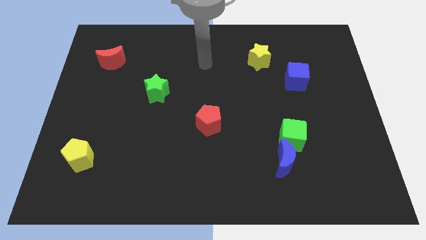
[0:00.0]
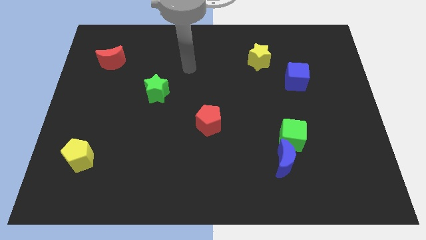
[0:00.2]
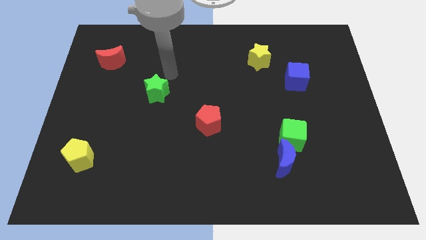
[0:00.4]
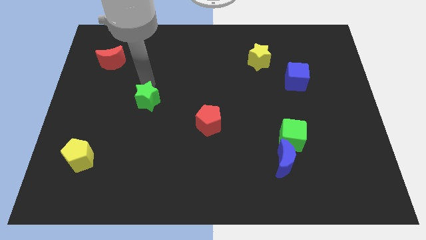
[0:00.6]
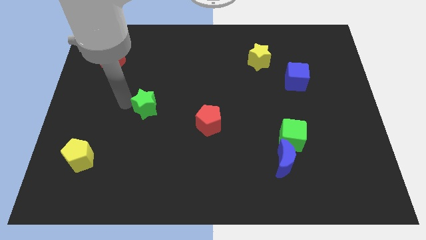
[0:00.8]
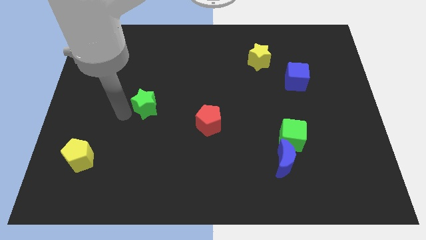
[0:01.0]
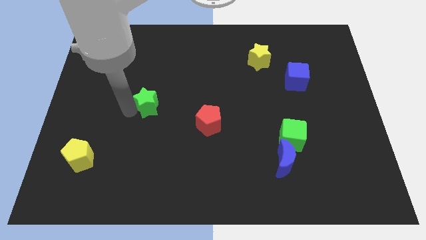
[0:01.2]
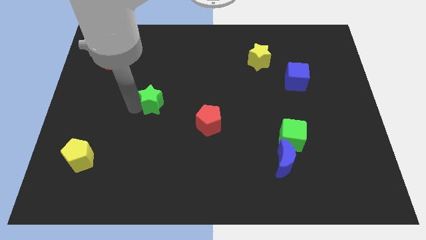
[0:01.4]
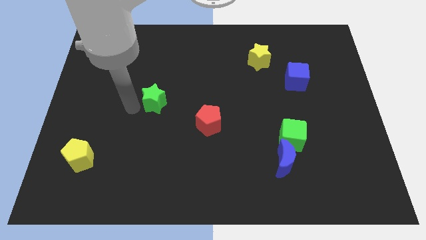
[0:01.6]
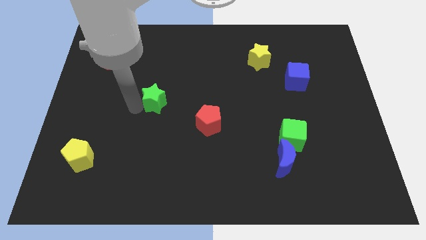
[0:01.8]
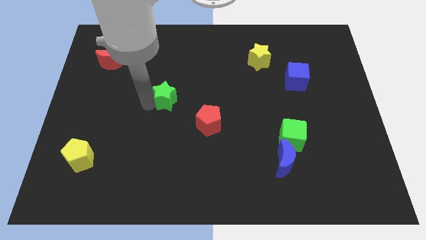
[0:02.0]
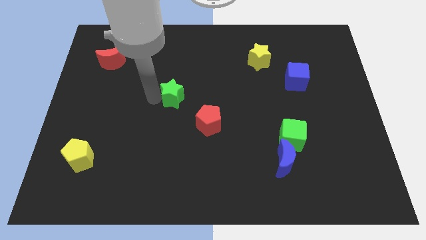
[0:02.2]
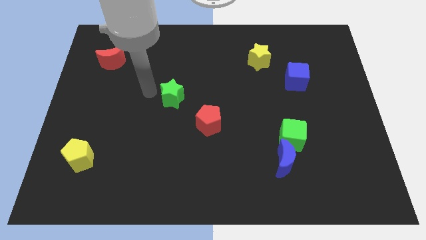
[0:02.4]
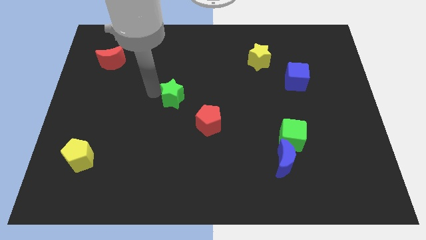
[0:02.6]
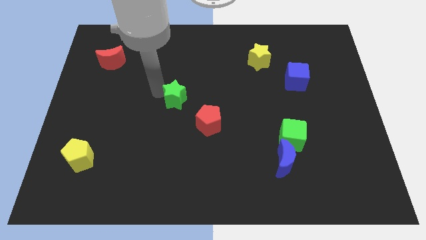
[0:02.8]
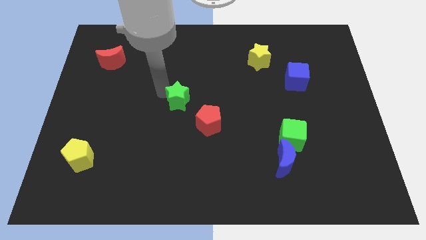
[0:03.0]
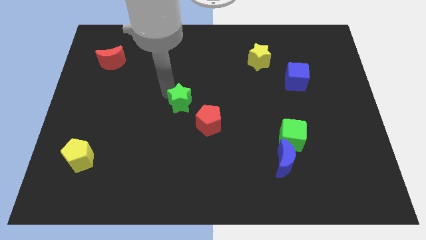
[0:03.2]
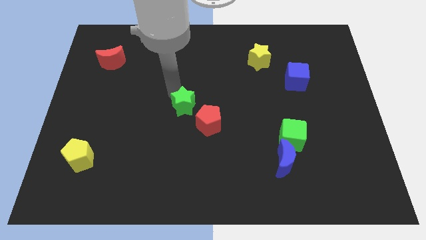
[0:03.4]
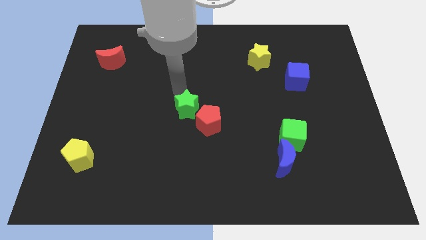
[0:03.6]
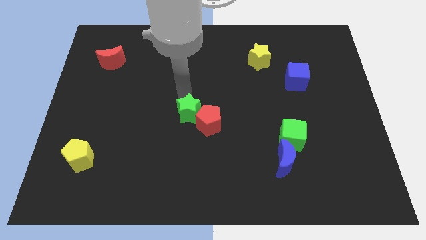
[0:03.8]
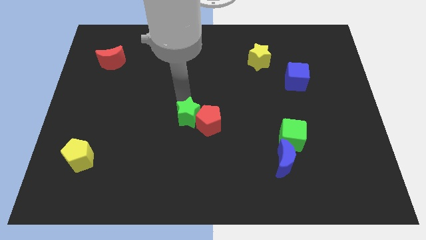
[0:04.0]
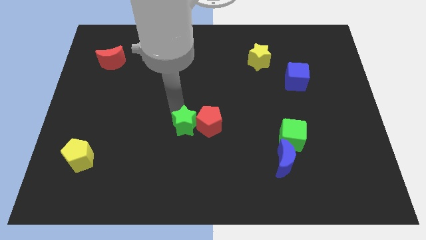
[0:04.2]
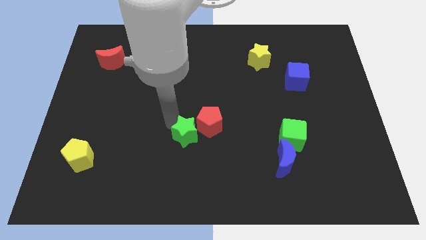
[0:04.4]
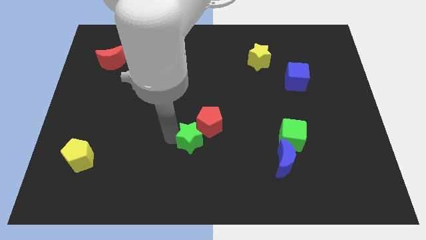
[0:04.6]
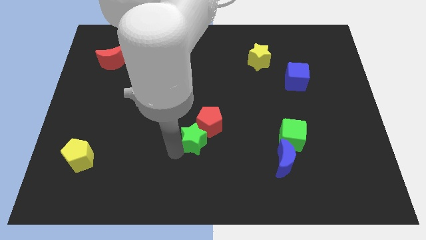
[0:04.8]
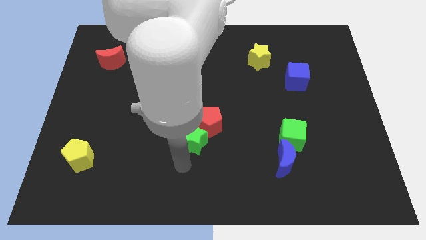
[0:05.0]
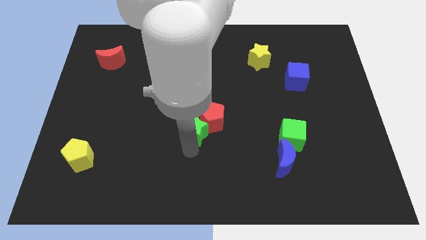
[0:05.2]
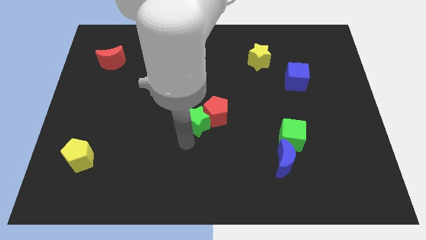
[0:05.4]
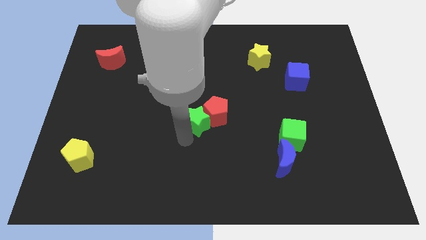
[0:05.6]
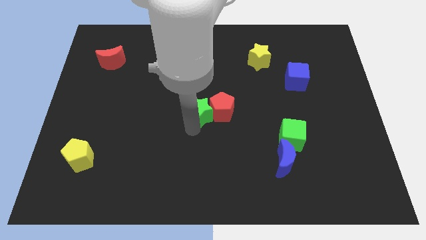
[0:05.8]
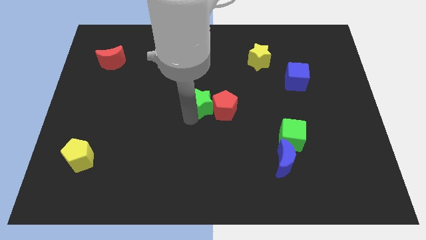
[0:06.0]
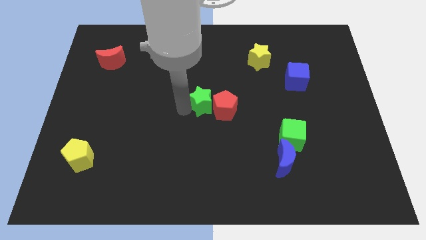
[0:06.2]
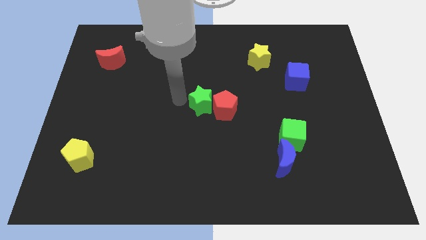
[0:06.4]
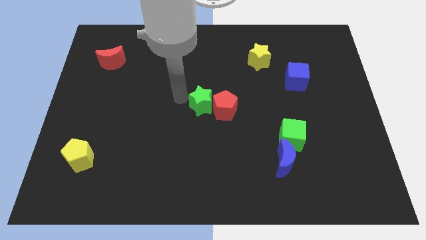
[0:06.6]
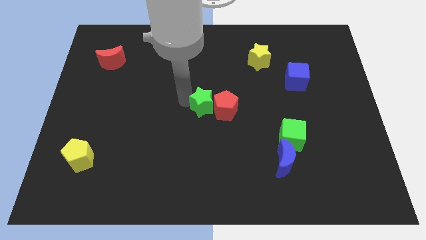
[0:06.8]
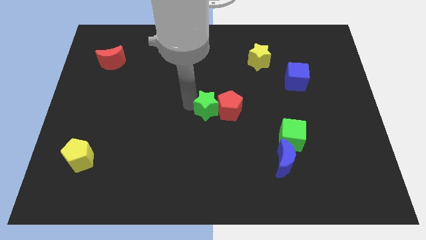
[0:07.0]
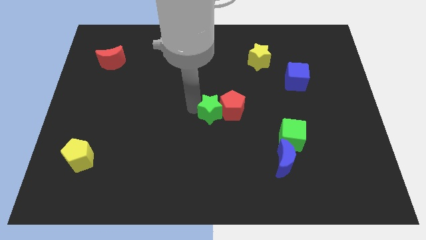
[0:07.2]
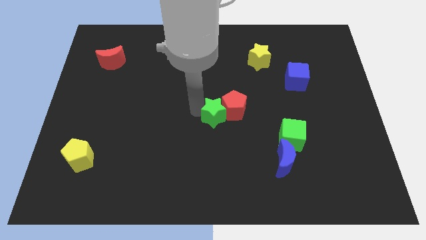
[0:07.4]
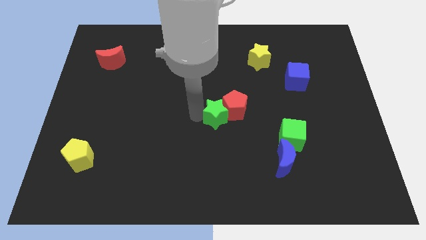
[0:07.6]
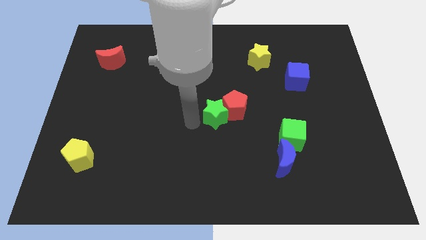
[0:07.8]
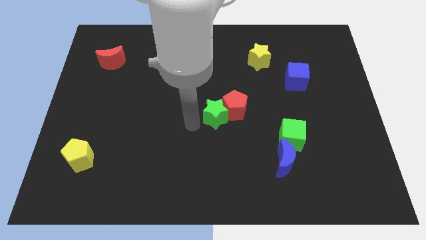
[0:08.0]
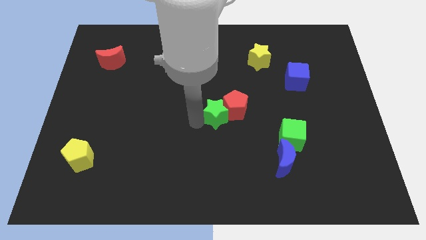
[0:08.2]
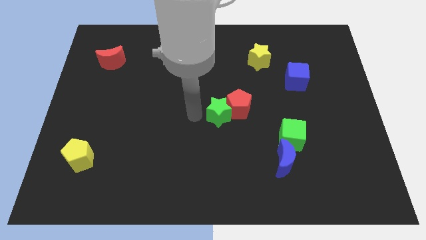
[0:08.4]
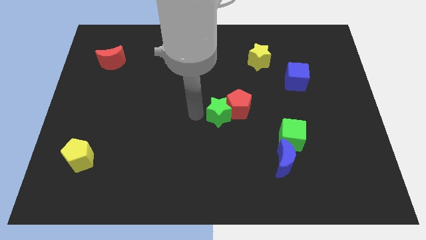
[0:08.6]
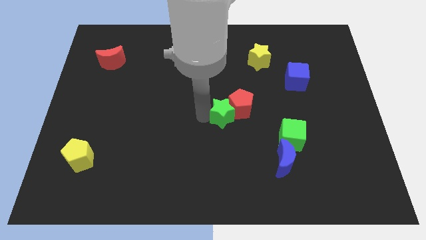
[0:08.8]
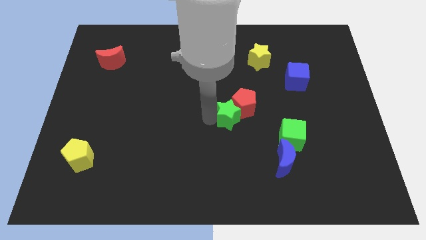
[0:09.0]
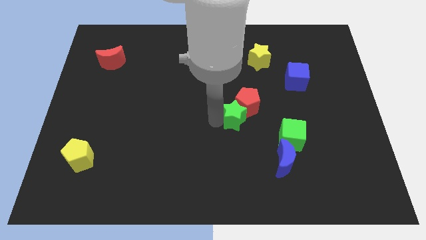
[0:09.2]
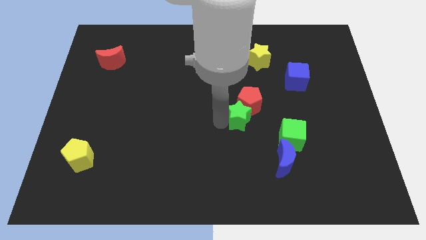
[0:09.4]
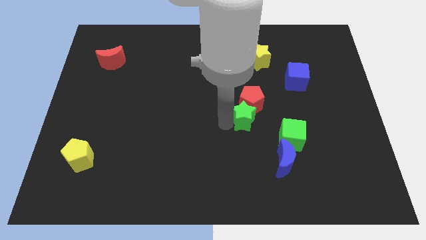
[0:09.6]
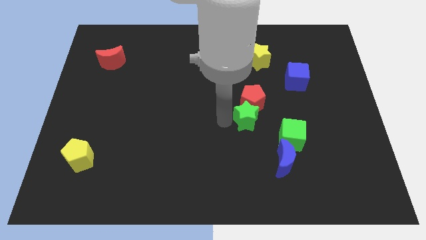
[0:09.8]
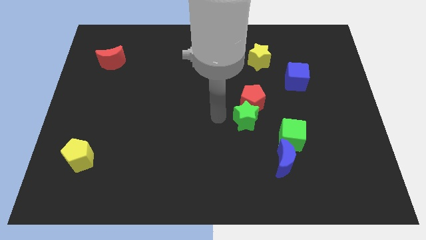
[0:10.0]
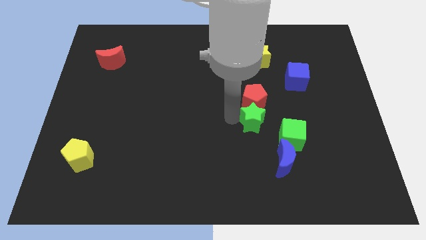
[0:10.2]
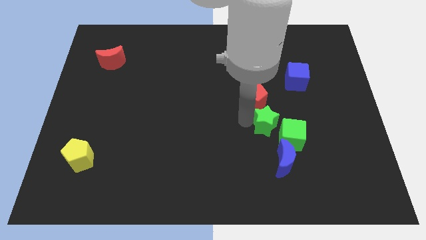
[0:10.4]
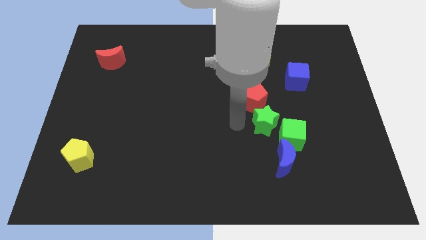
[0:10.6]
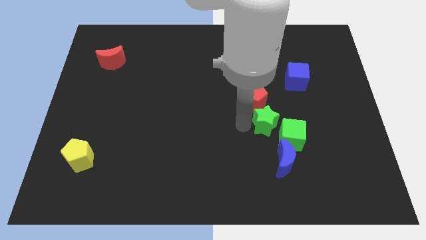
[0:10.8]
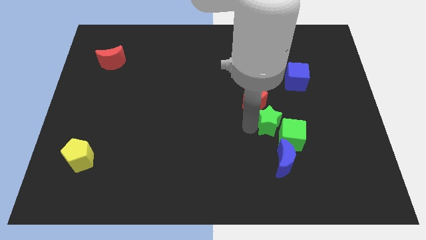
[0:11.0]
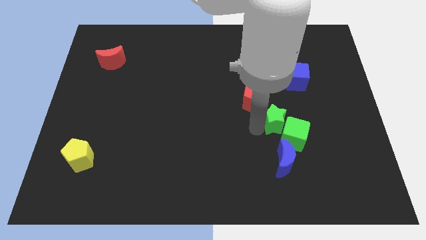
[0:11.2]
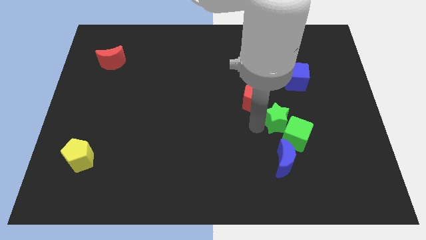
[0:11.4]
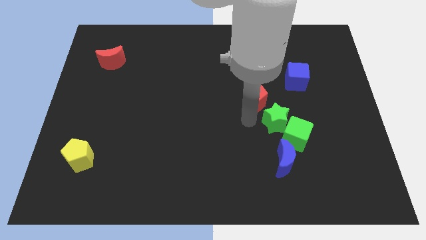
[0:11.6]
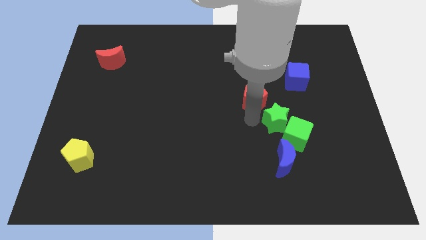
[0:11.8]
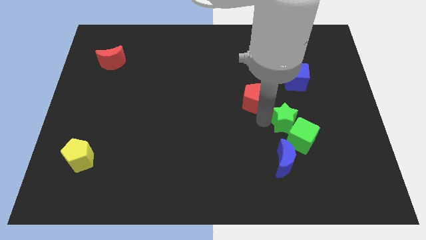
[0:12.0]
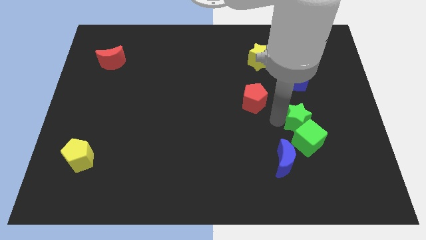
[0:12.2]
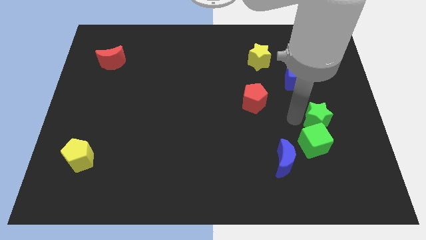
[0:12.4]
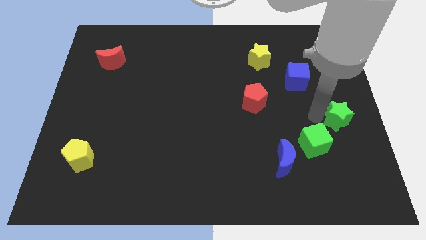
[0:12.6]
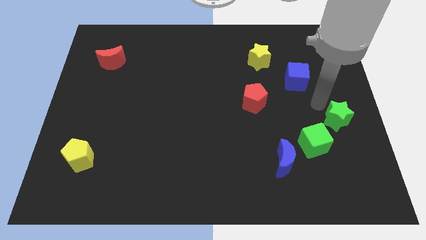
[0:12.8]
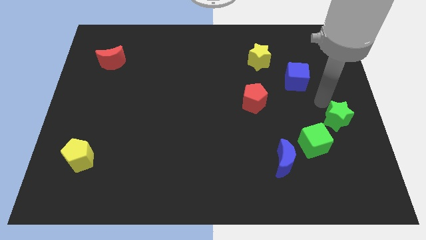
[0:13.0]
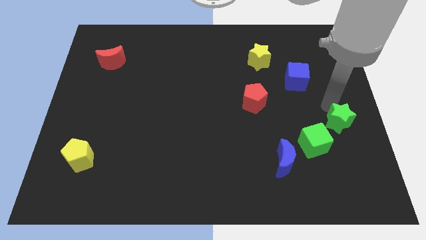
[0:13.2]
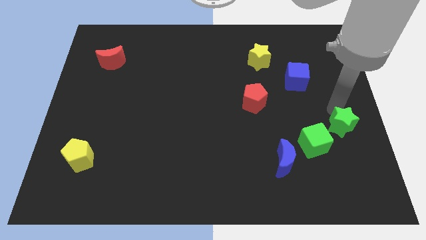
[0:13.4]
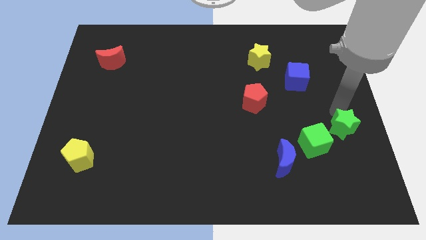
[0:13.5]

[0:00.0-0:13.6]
slide the green star to the right side of the green cube

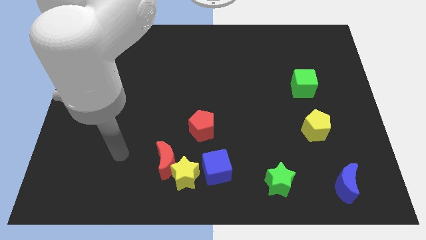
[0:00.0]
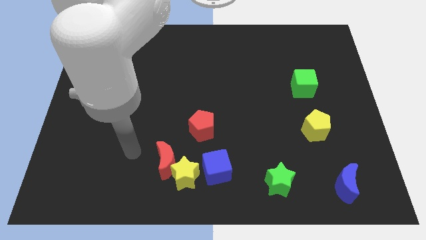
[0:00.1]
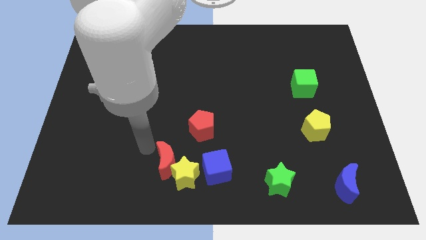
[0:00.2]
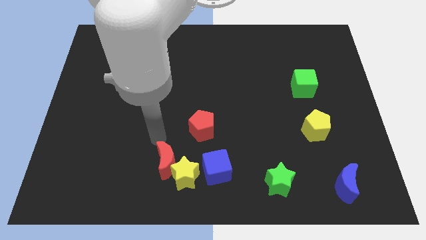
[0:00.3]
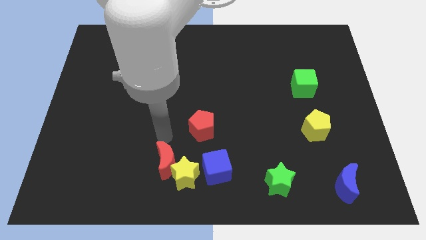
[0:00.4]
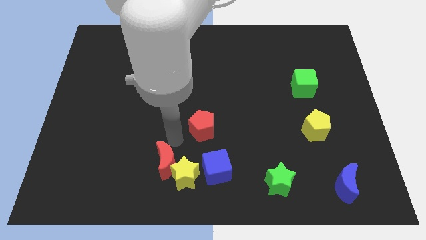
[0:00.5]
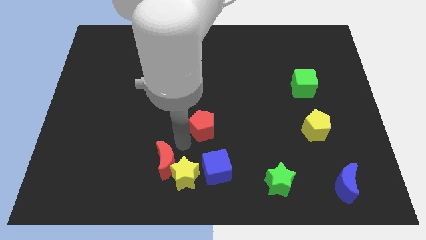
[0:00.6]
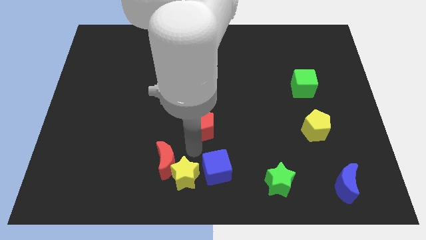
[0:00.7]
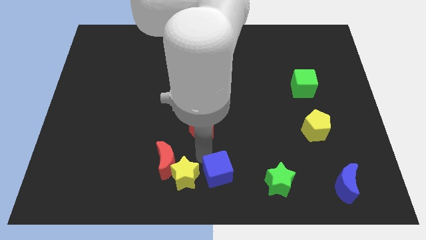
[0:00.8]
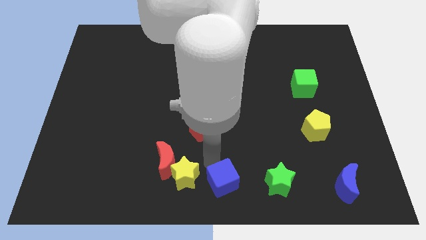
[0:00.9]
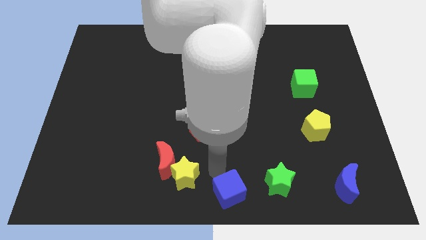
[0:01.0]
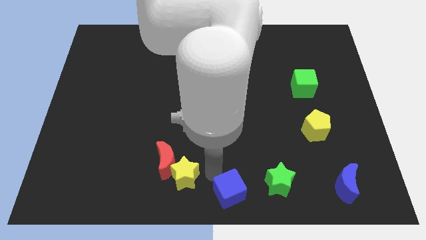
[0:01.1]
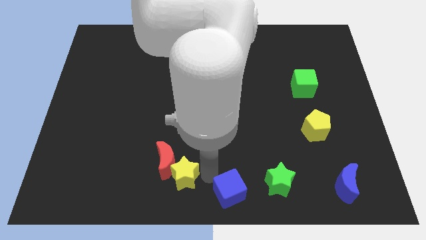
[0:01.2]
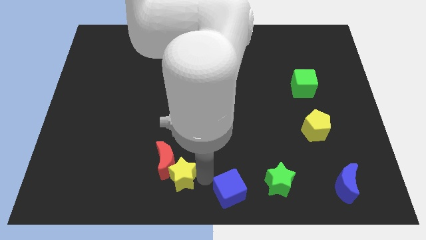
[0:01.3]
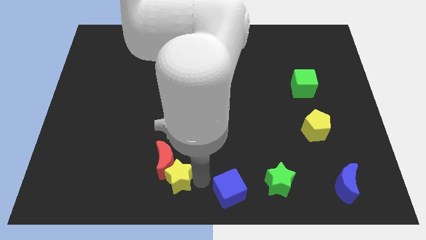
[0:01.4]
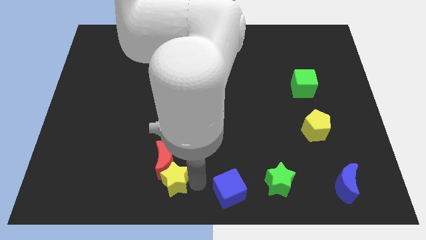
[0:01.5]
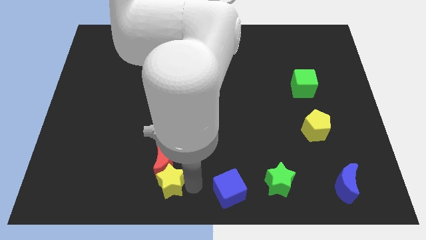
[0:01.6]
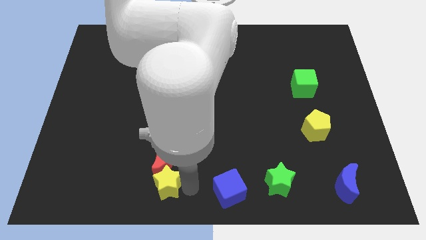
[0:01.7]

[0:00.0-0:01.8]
slide the yellow star to the bottom left of the red moon
